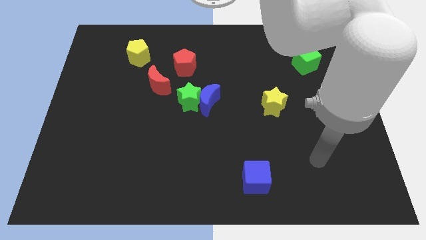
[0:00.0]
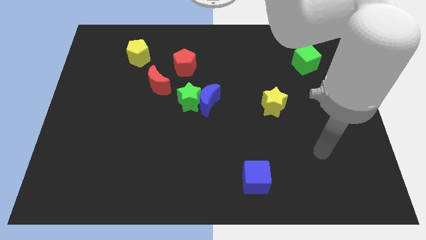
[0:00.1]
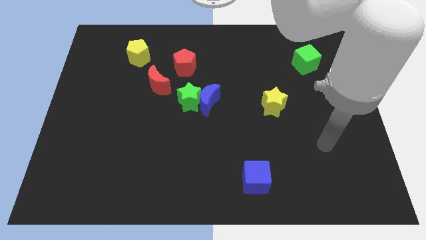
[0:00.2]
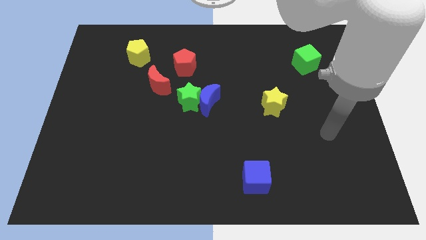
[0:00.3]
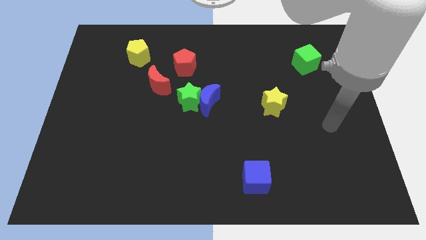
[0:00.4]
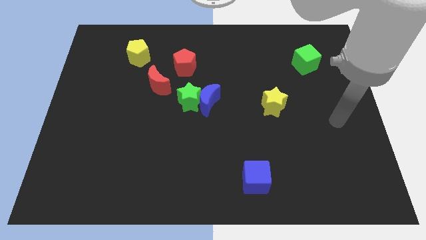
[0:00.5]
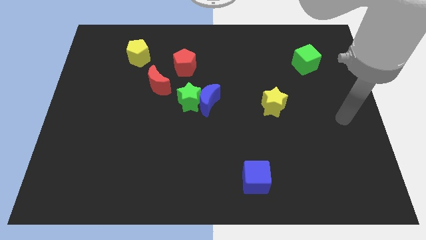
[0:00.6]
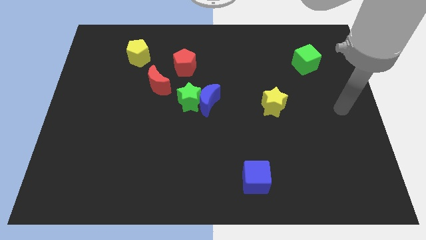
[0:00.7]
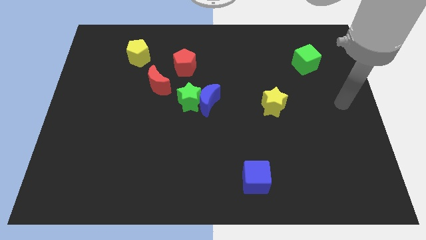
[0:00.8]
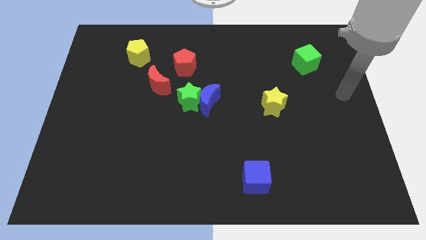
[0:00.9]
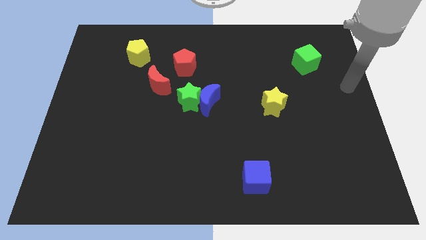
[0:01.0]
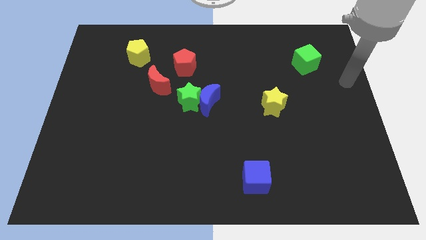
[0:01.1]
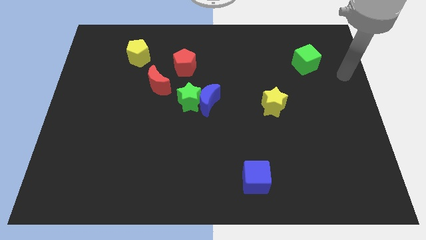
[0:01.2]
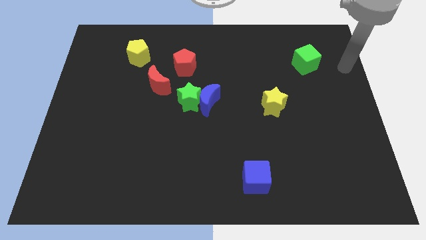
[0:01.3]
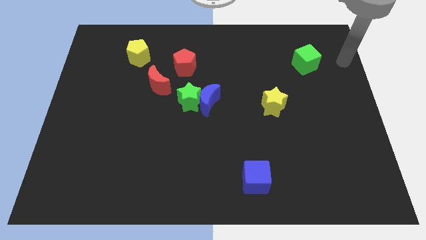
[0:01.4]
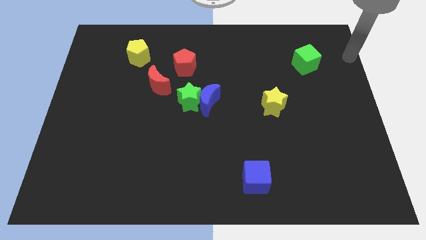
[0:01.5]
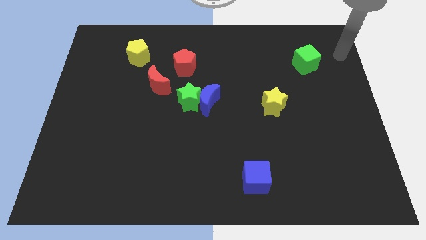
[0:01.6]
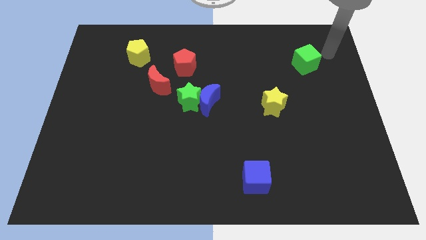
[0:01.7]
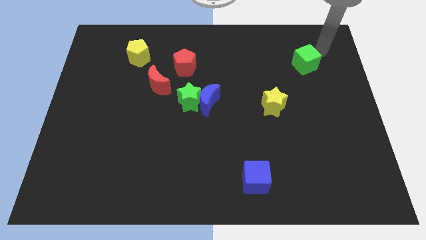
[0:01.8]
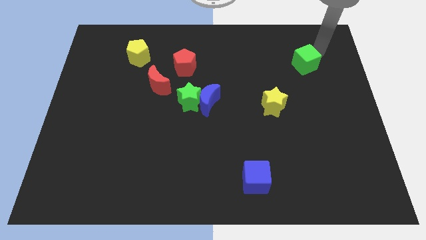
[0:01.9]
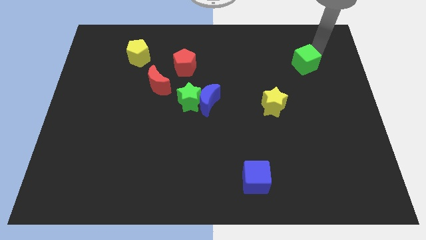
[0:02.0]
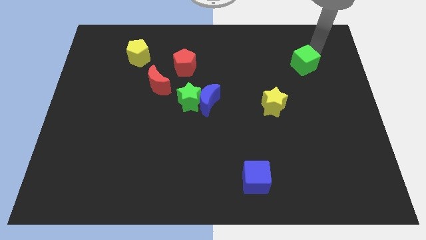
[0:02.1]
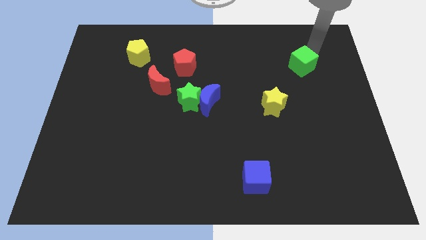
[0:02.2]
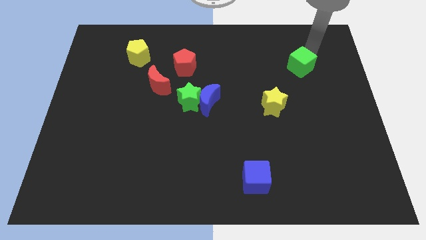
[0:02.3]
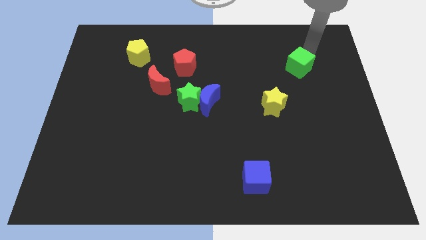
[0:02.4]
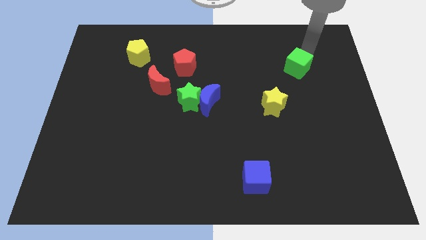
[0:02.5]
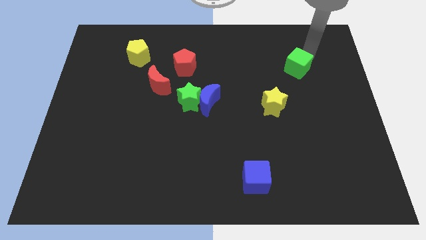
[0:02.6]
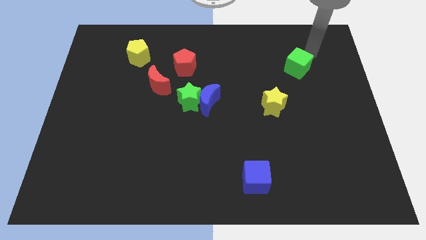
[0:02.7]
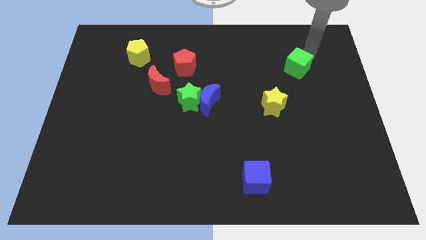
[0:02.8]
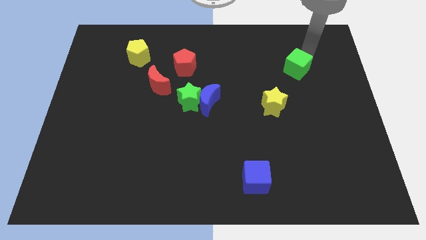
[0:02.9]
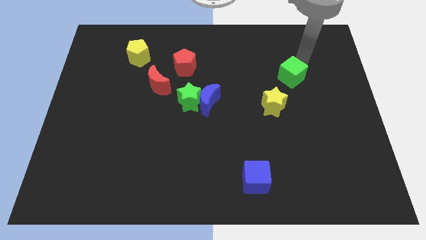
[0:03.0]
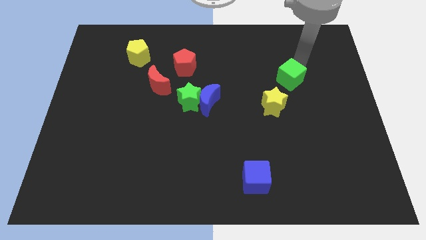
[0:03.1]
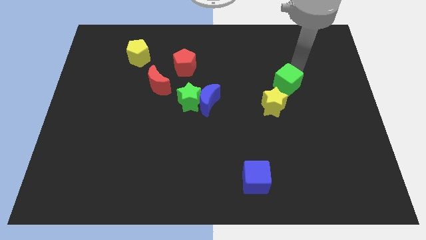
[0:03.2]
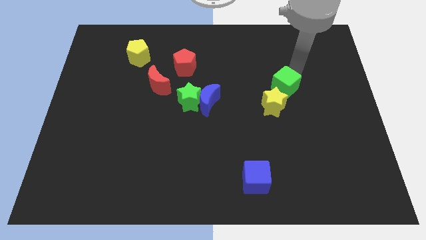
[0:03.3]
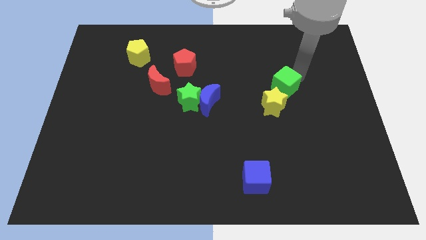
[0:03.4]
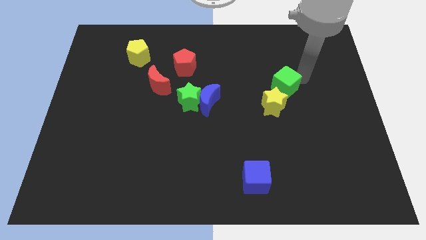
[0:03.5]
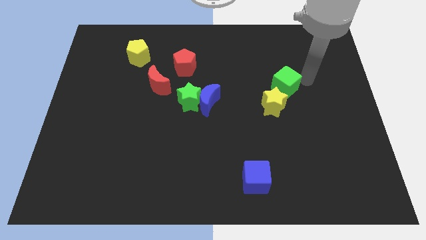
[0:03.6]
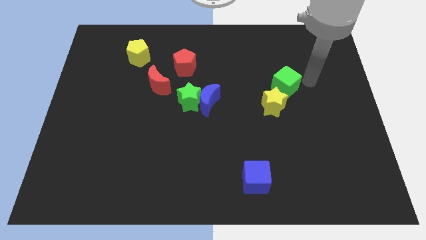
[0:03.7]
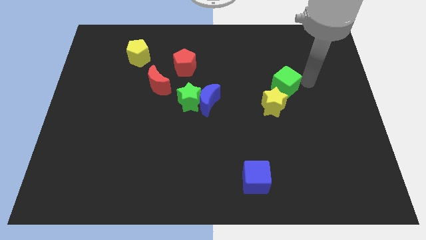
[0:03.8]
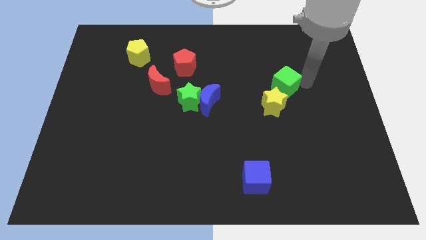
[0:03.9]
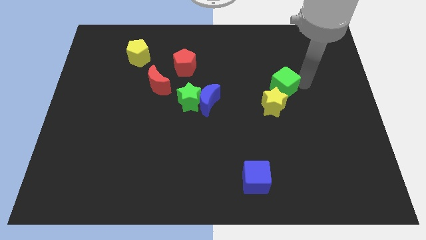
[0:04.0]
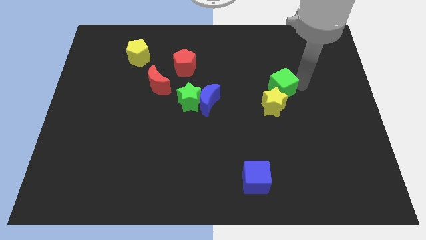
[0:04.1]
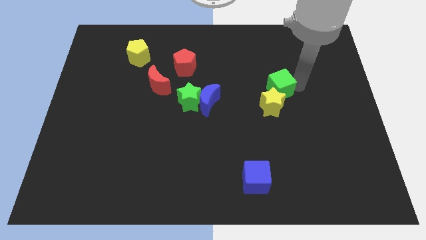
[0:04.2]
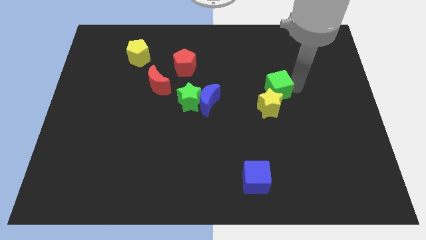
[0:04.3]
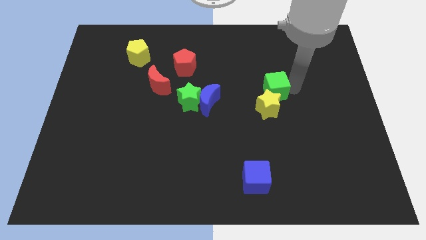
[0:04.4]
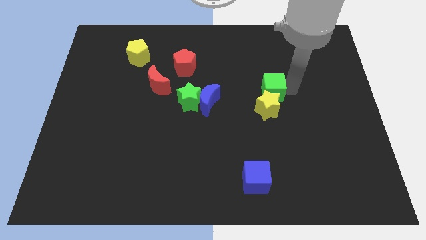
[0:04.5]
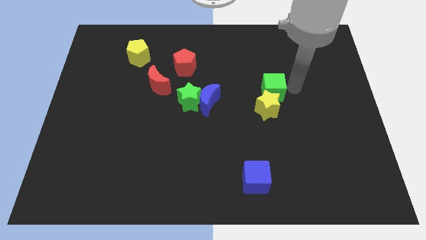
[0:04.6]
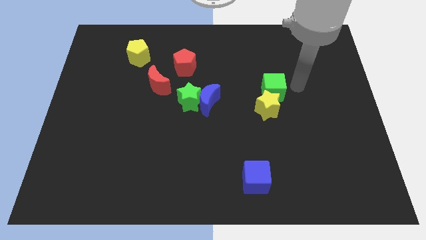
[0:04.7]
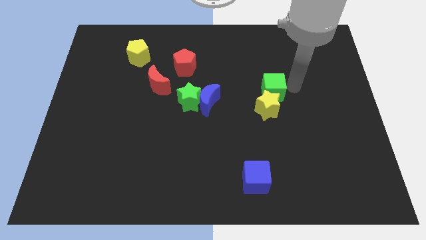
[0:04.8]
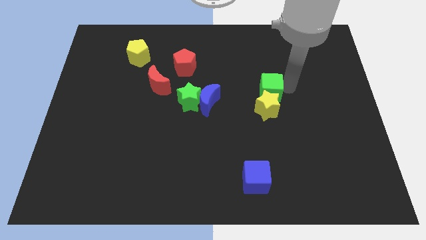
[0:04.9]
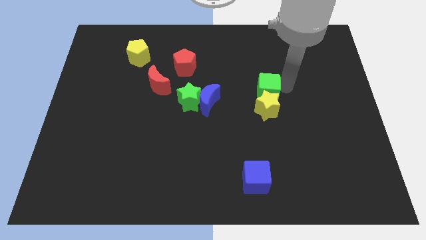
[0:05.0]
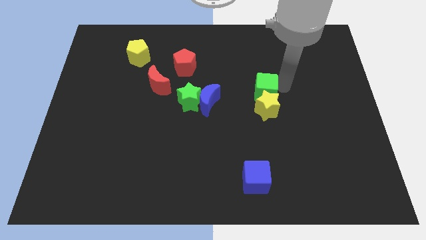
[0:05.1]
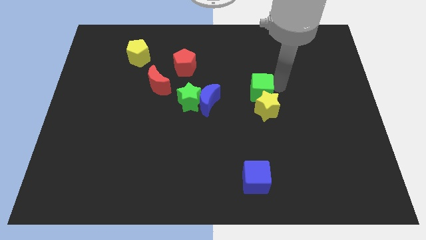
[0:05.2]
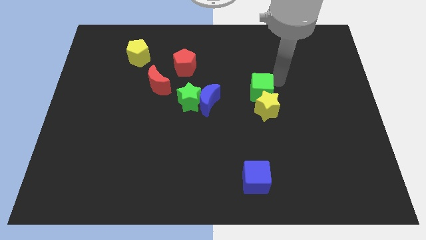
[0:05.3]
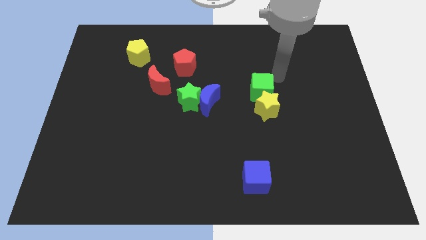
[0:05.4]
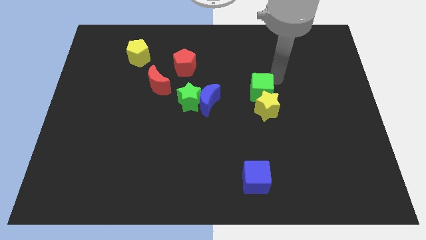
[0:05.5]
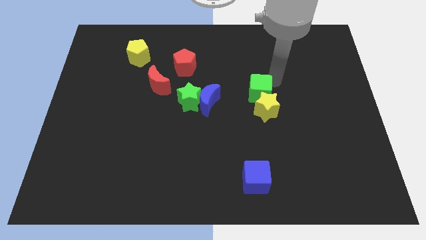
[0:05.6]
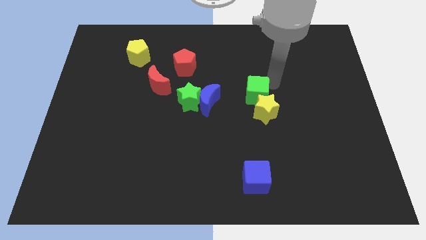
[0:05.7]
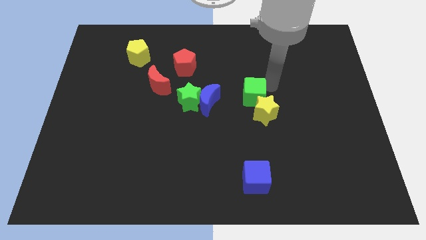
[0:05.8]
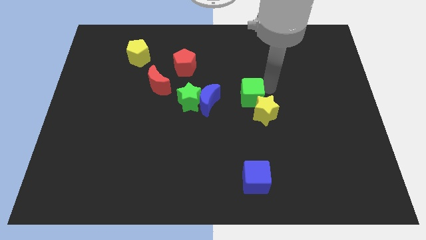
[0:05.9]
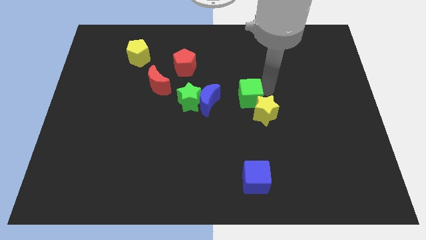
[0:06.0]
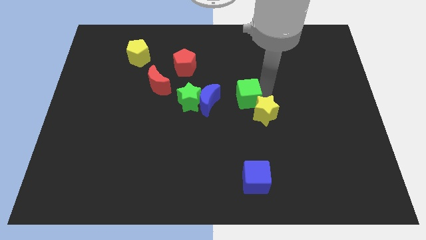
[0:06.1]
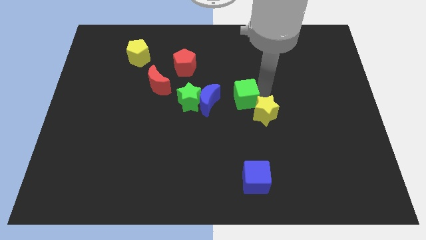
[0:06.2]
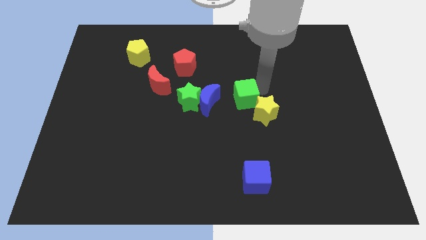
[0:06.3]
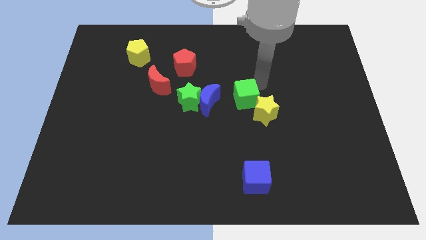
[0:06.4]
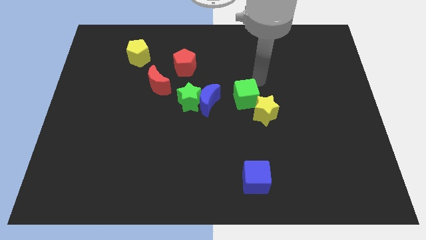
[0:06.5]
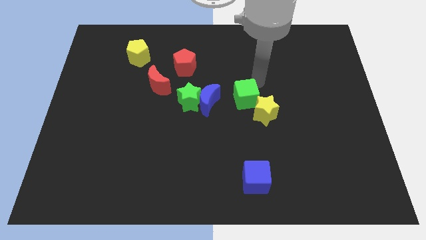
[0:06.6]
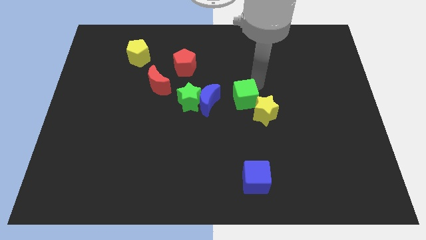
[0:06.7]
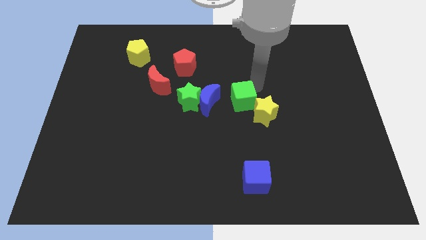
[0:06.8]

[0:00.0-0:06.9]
slide the green cube downwards and left

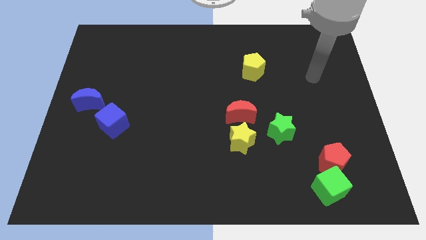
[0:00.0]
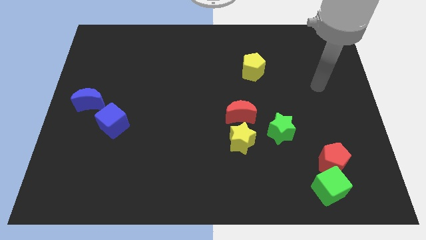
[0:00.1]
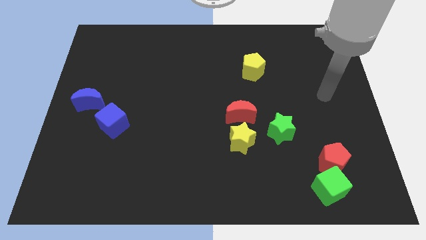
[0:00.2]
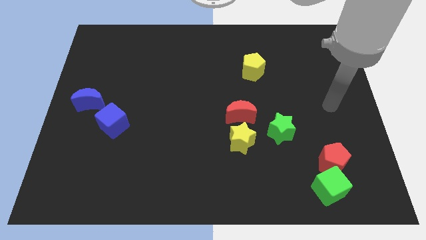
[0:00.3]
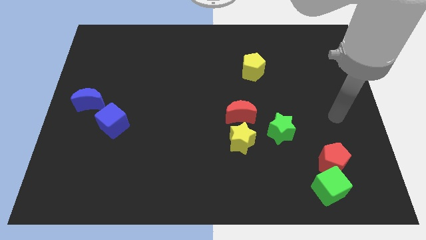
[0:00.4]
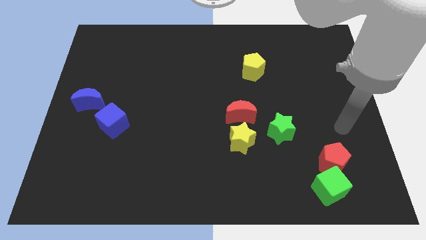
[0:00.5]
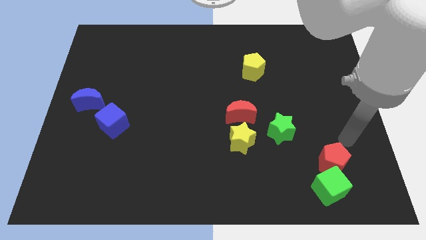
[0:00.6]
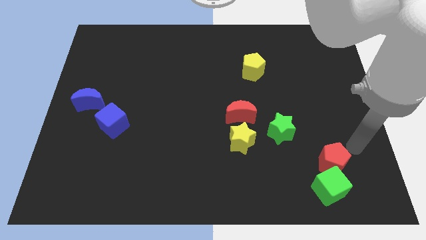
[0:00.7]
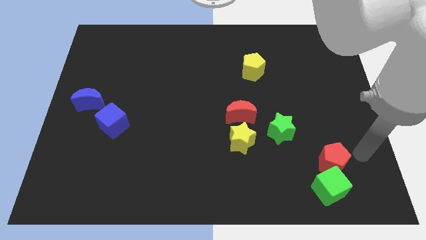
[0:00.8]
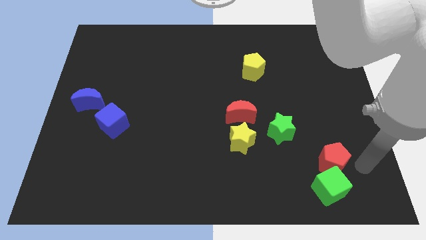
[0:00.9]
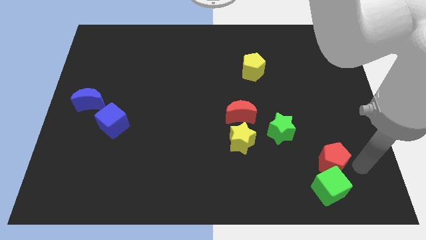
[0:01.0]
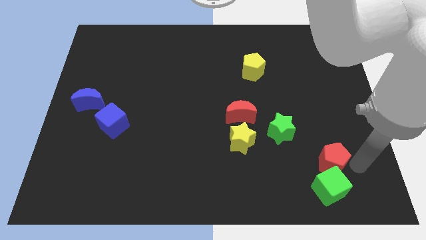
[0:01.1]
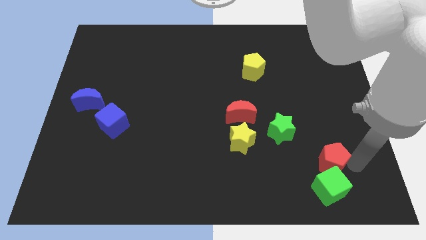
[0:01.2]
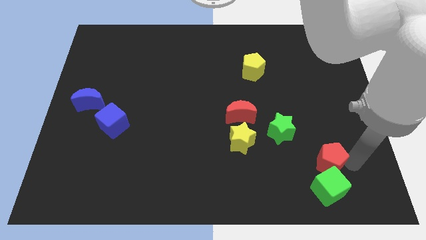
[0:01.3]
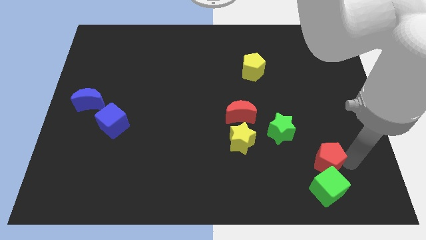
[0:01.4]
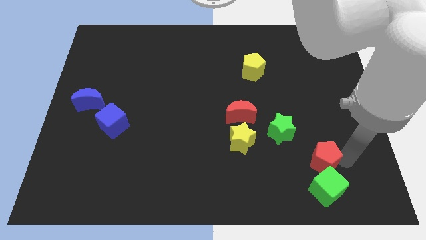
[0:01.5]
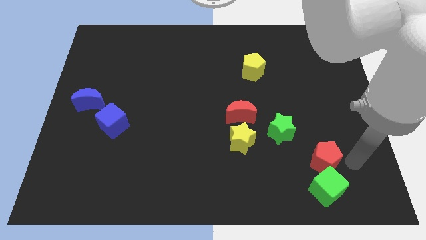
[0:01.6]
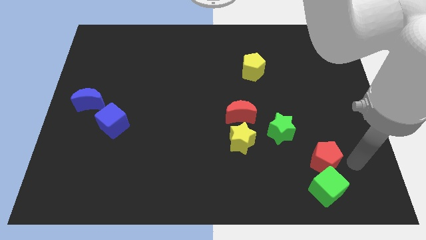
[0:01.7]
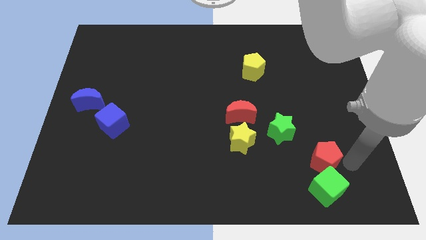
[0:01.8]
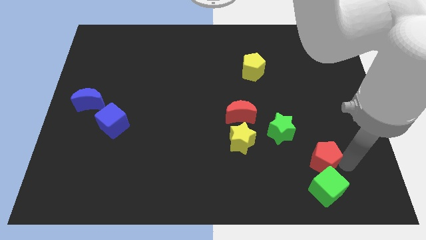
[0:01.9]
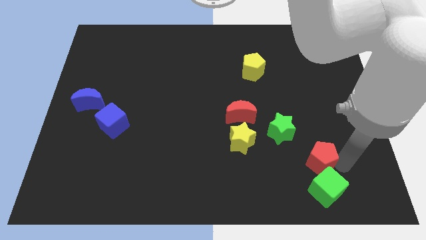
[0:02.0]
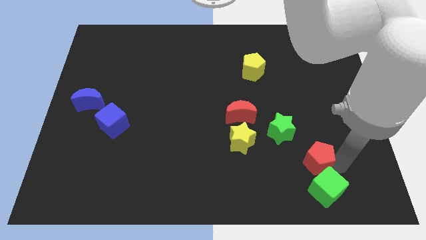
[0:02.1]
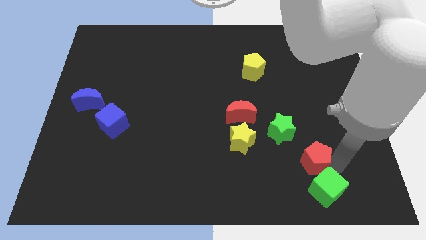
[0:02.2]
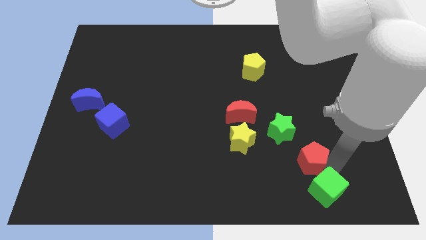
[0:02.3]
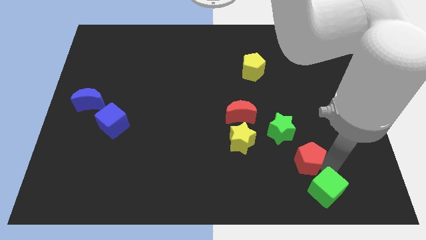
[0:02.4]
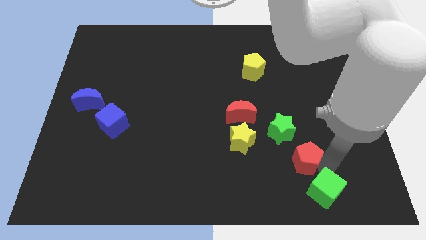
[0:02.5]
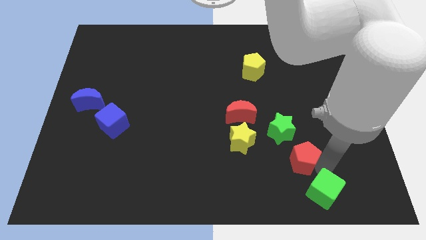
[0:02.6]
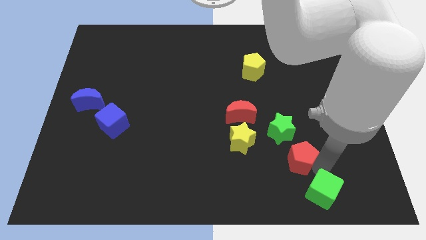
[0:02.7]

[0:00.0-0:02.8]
move the red pentagon a little bit to the left
